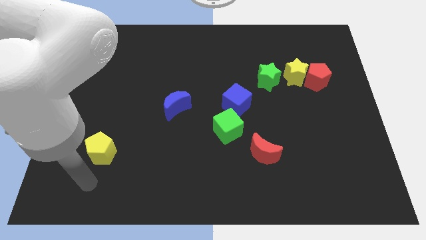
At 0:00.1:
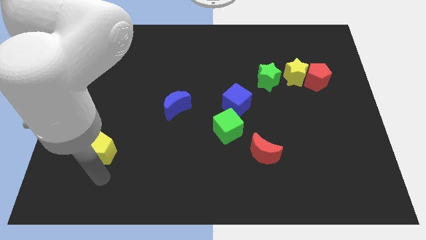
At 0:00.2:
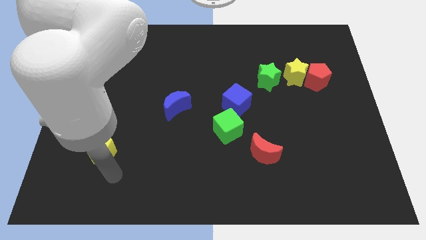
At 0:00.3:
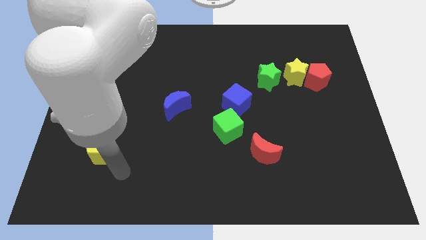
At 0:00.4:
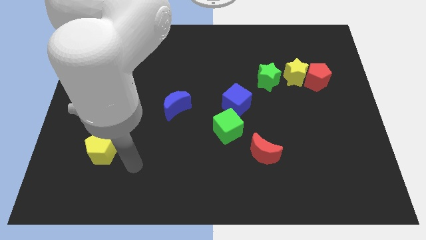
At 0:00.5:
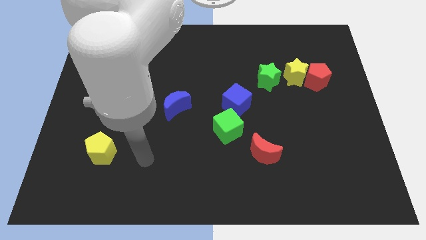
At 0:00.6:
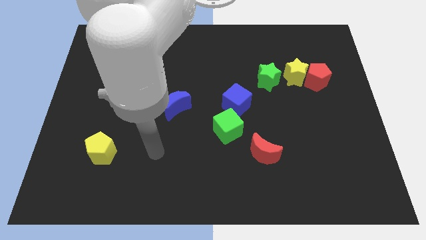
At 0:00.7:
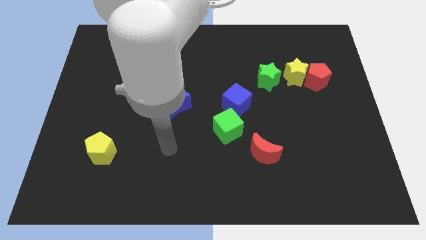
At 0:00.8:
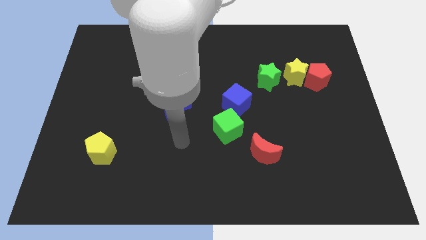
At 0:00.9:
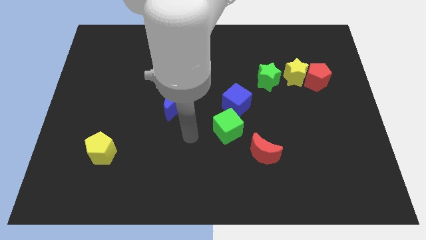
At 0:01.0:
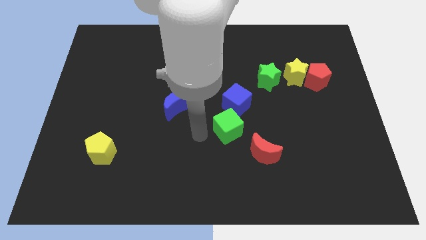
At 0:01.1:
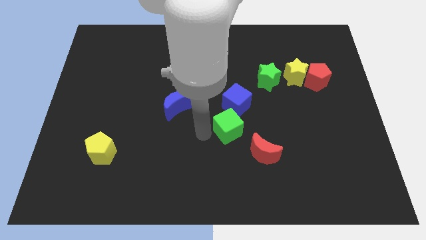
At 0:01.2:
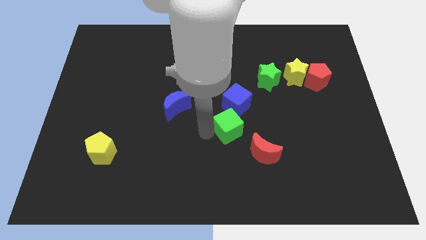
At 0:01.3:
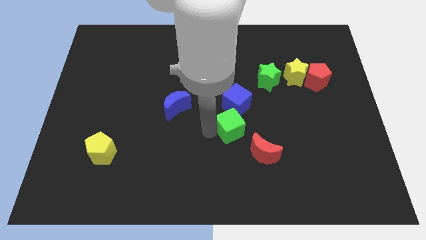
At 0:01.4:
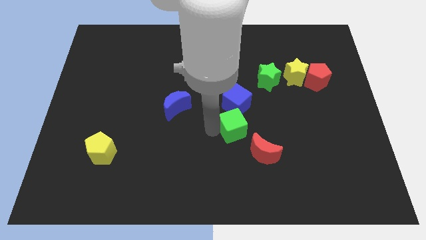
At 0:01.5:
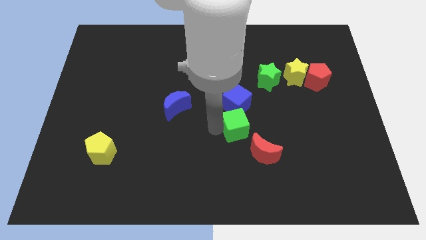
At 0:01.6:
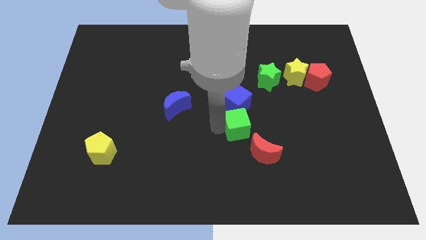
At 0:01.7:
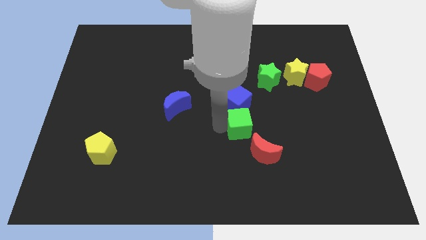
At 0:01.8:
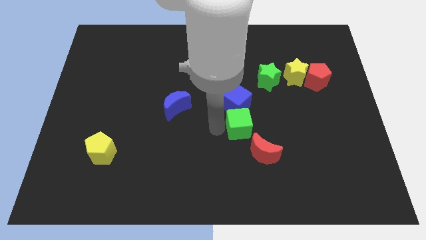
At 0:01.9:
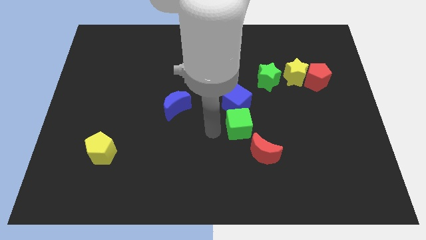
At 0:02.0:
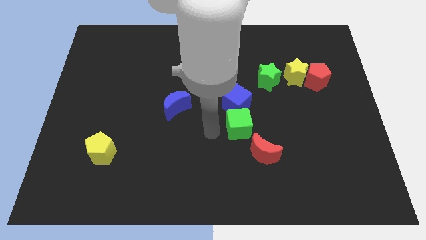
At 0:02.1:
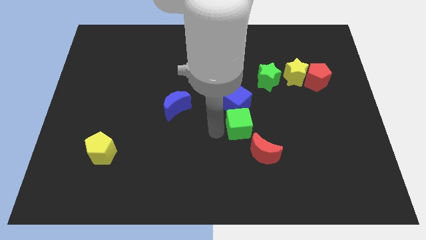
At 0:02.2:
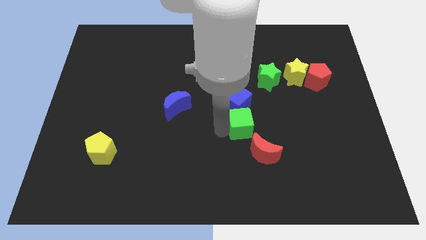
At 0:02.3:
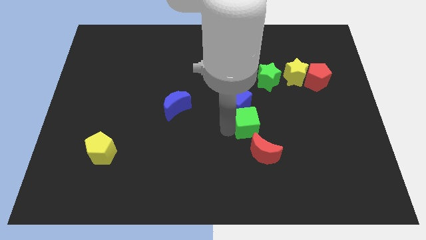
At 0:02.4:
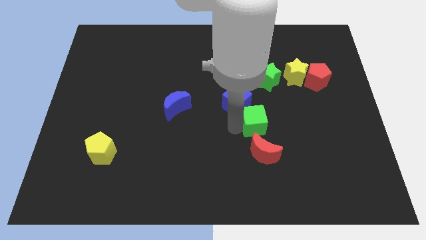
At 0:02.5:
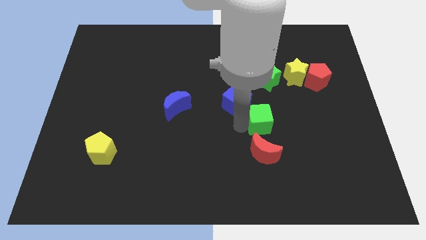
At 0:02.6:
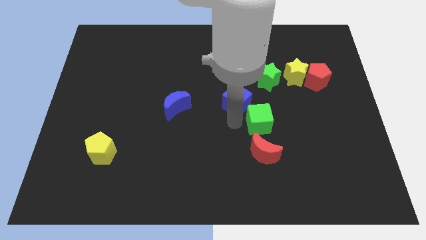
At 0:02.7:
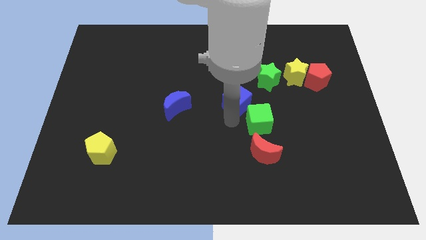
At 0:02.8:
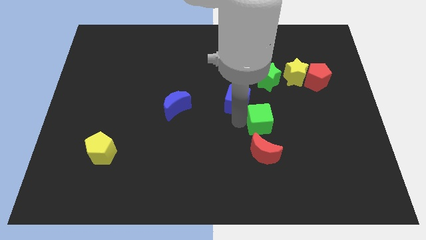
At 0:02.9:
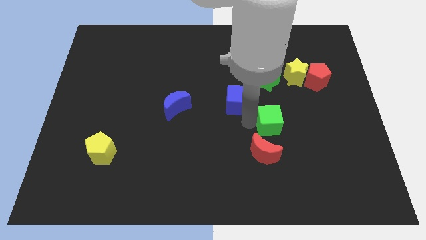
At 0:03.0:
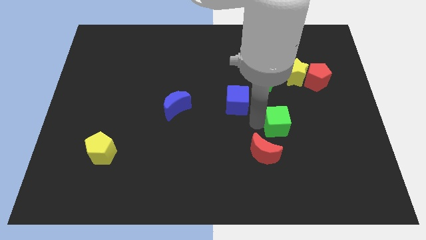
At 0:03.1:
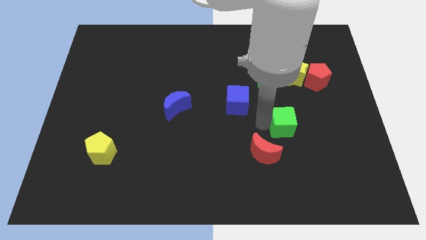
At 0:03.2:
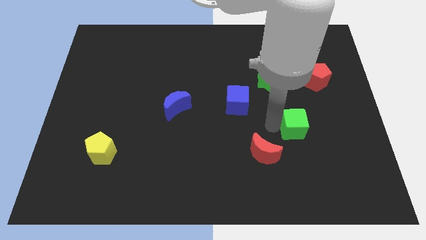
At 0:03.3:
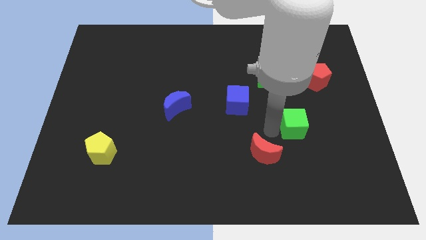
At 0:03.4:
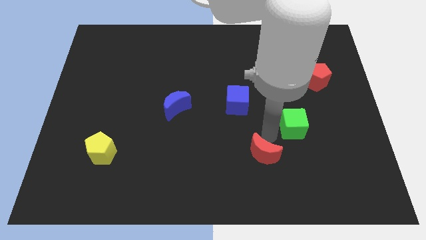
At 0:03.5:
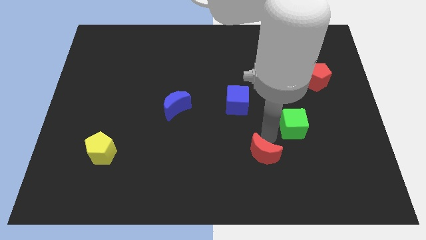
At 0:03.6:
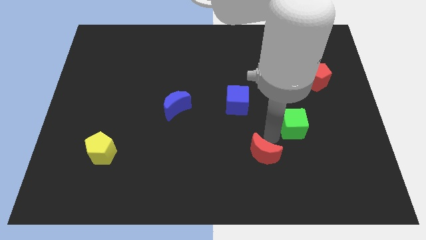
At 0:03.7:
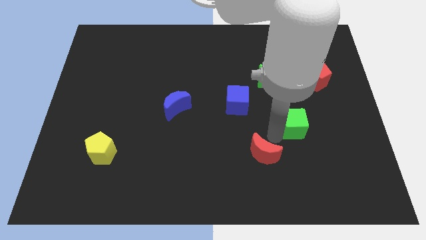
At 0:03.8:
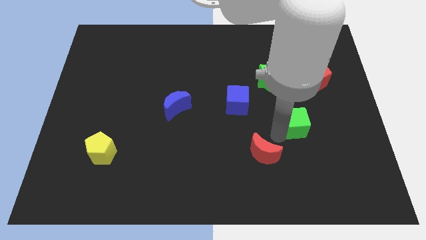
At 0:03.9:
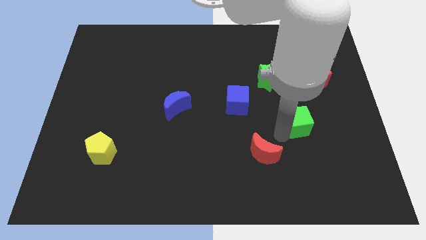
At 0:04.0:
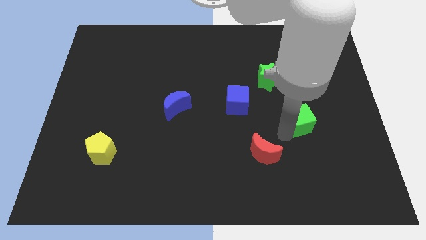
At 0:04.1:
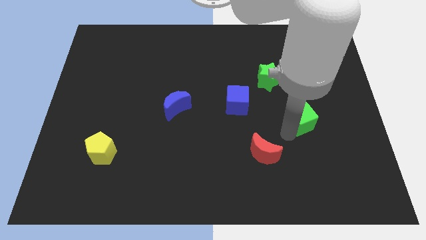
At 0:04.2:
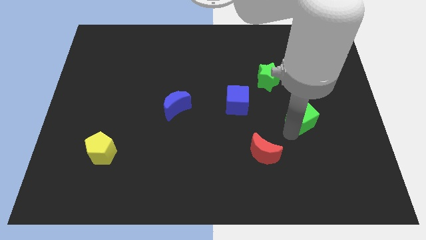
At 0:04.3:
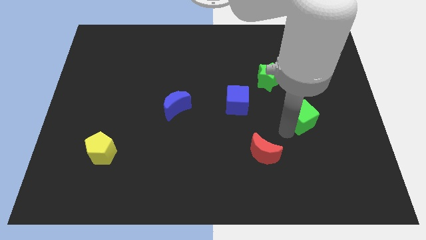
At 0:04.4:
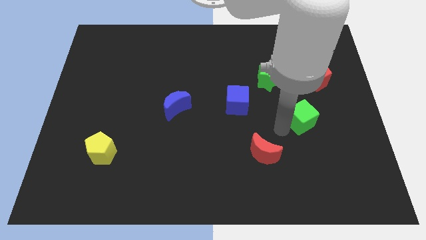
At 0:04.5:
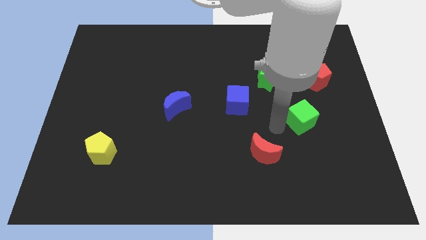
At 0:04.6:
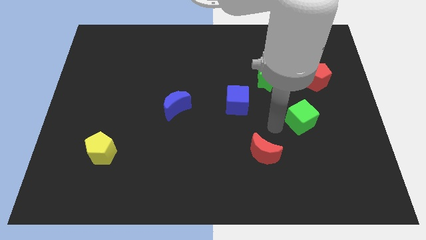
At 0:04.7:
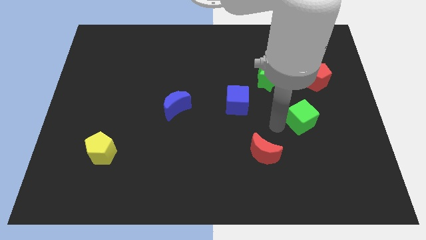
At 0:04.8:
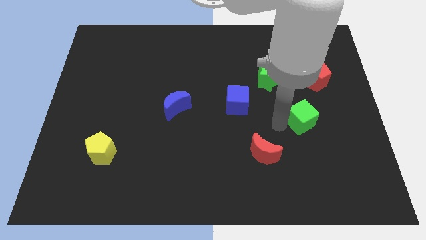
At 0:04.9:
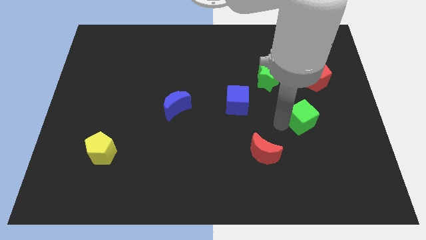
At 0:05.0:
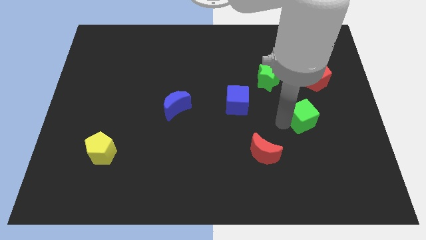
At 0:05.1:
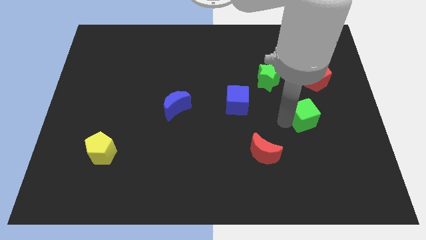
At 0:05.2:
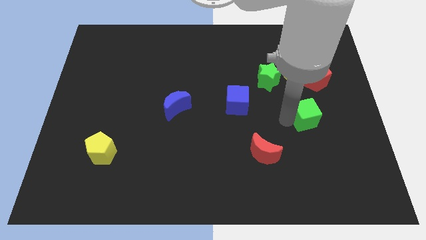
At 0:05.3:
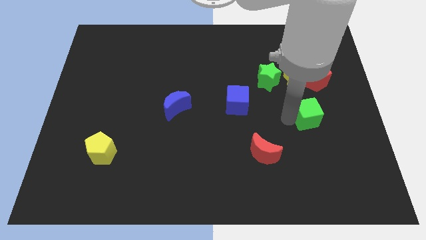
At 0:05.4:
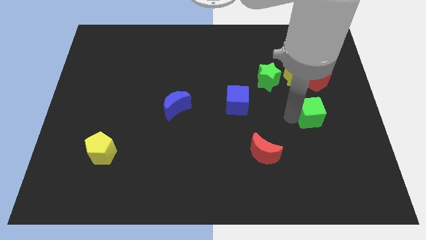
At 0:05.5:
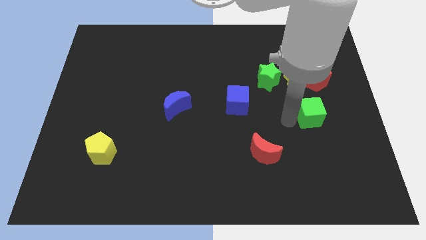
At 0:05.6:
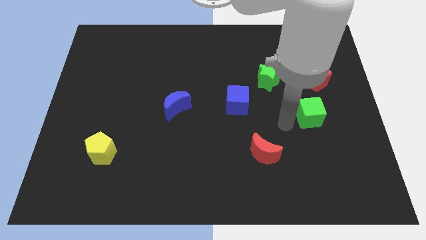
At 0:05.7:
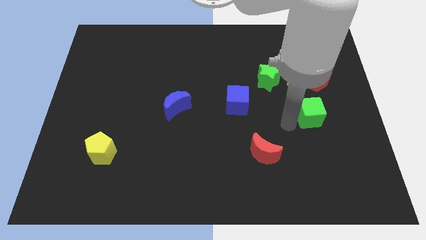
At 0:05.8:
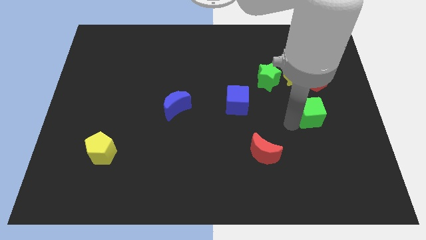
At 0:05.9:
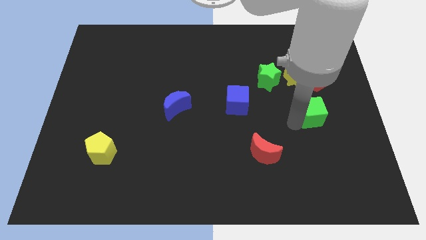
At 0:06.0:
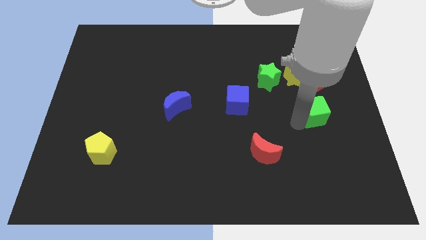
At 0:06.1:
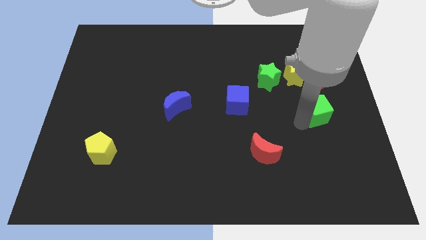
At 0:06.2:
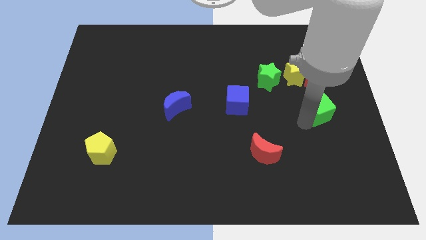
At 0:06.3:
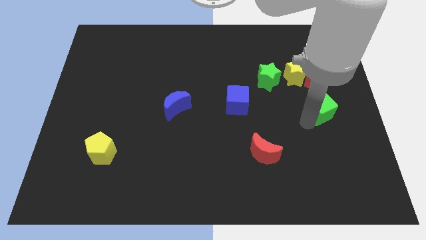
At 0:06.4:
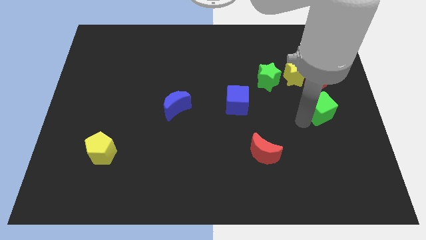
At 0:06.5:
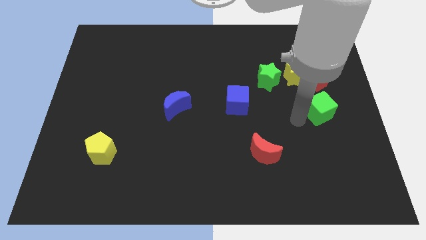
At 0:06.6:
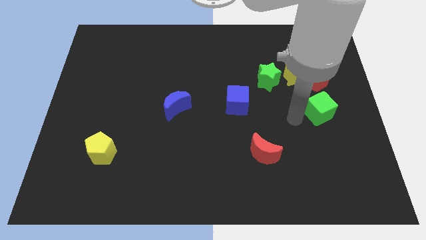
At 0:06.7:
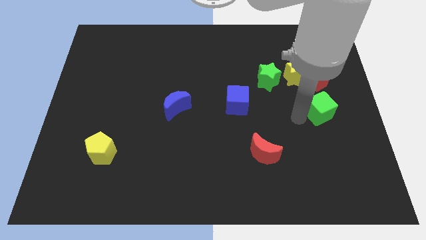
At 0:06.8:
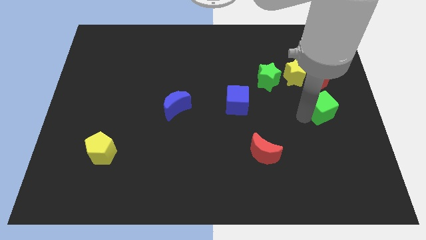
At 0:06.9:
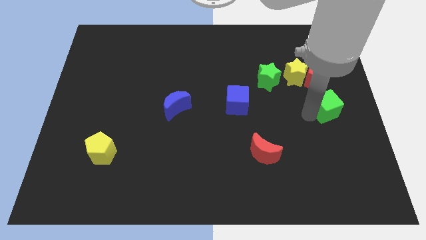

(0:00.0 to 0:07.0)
push the green cube to the right side of the board

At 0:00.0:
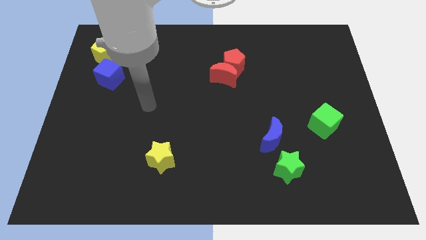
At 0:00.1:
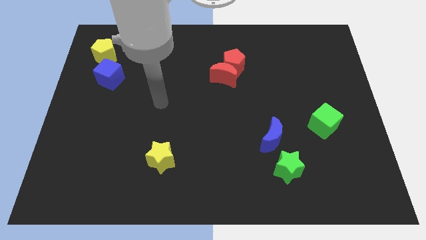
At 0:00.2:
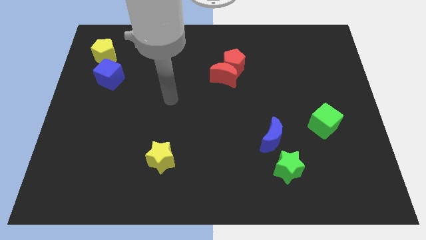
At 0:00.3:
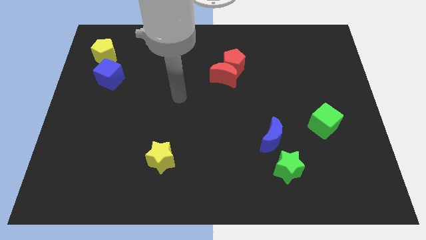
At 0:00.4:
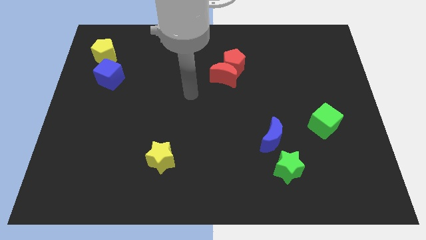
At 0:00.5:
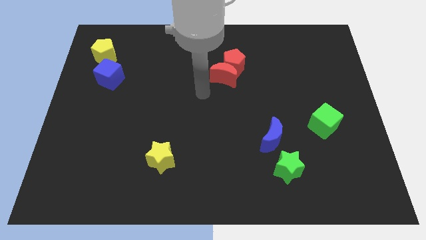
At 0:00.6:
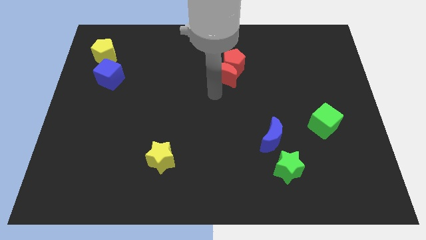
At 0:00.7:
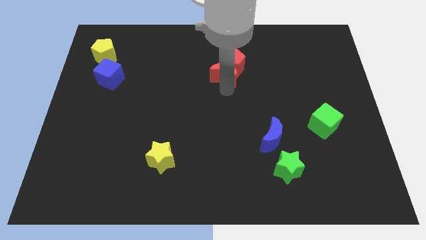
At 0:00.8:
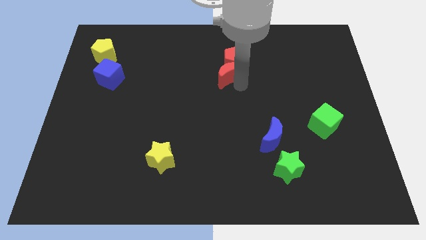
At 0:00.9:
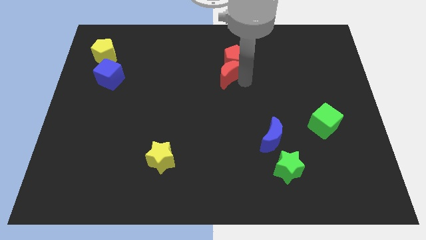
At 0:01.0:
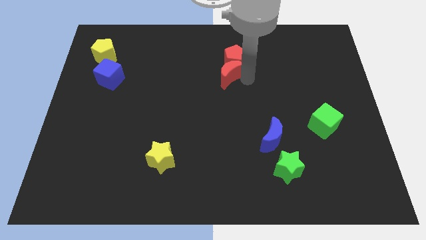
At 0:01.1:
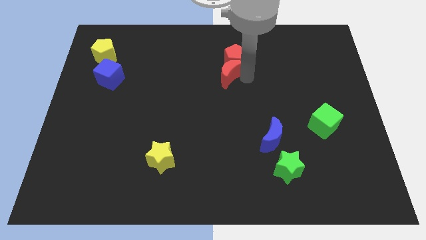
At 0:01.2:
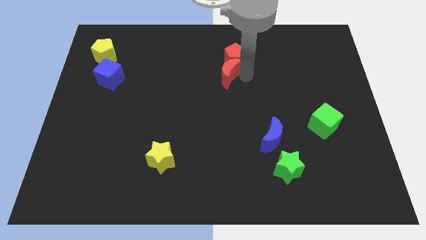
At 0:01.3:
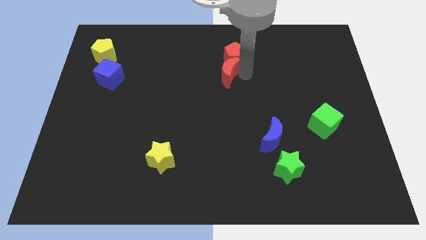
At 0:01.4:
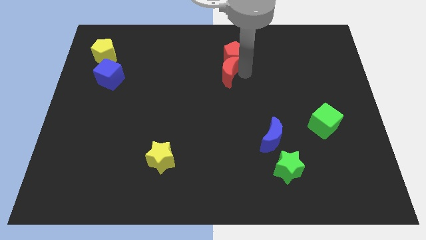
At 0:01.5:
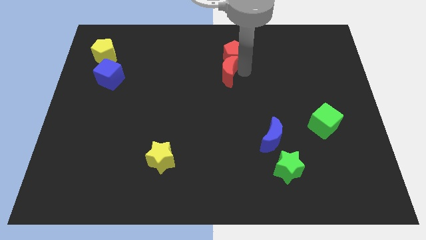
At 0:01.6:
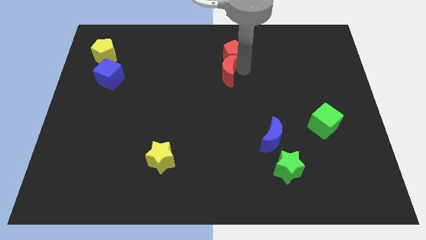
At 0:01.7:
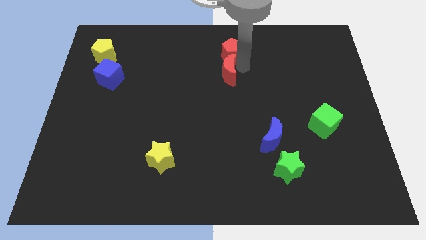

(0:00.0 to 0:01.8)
slide the red pentagon to the top
